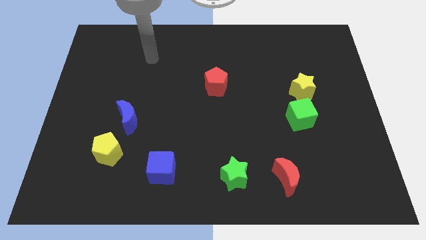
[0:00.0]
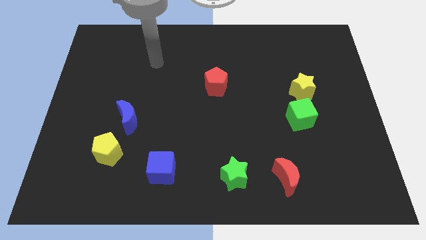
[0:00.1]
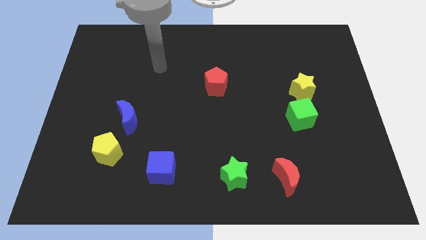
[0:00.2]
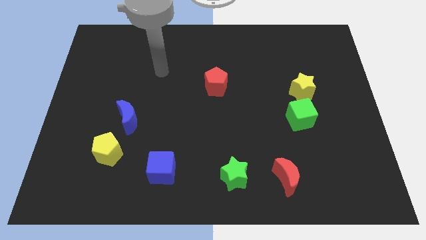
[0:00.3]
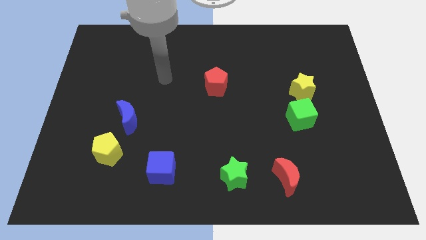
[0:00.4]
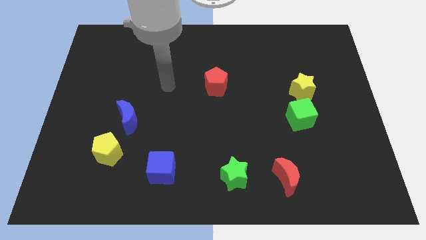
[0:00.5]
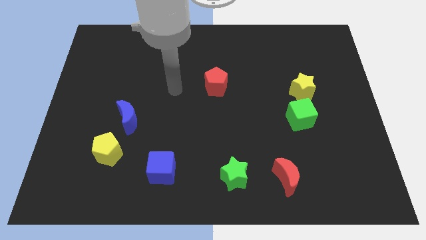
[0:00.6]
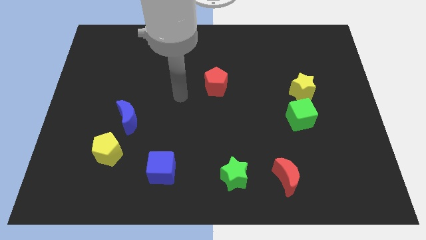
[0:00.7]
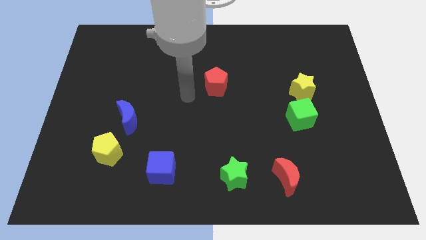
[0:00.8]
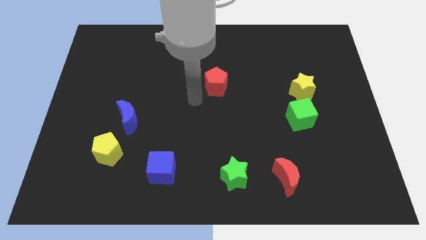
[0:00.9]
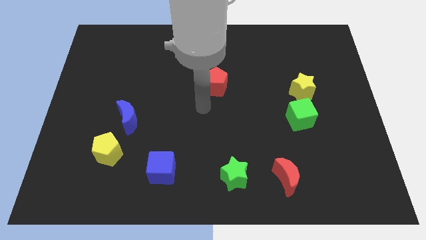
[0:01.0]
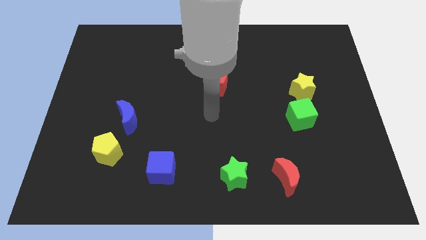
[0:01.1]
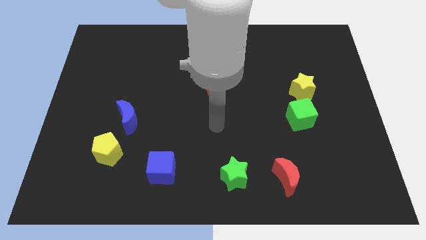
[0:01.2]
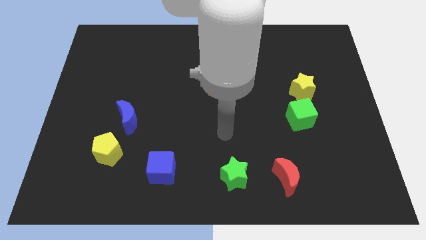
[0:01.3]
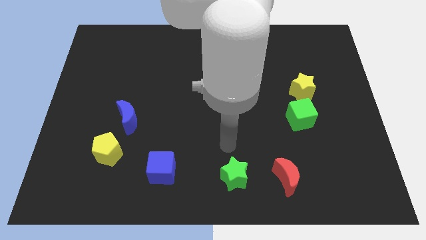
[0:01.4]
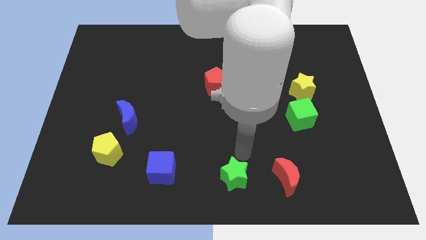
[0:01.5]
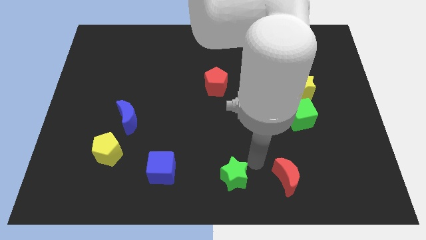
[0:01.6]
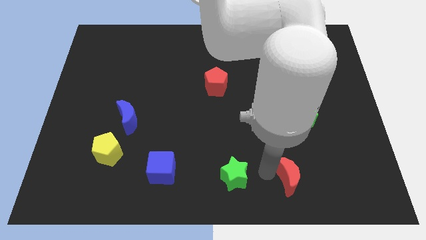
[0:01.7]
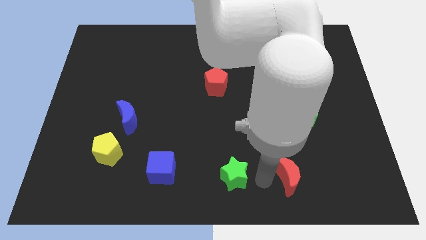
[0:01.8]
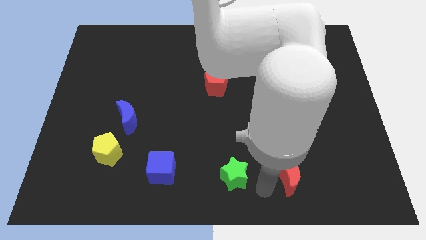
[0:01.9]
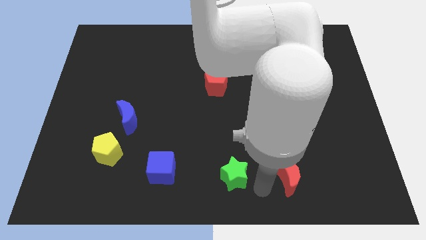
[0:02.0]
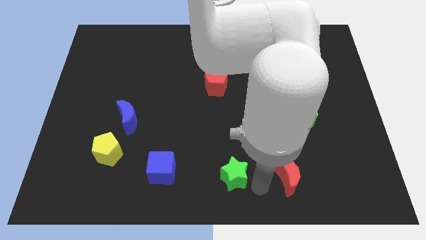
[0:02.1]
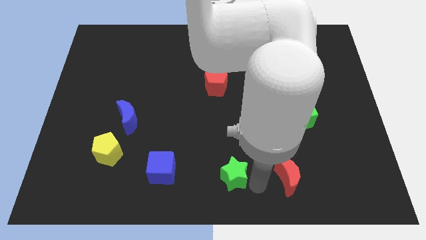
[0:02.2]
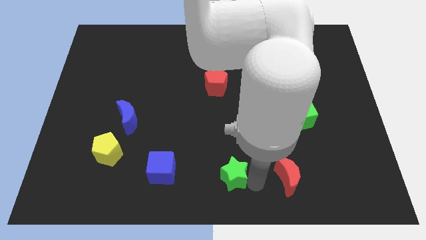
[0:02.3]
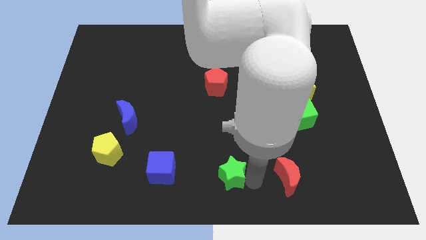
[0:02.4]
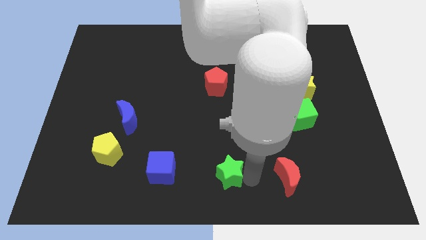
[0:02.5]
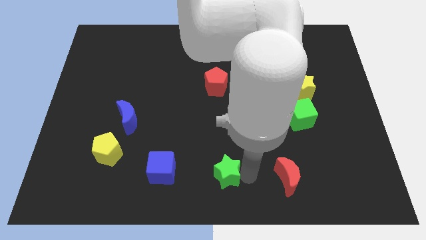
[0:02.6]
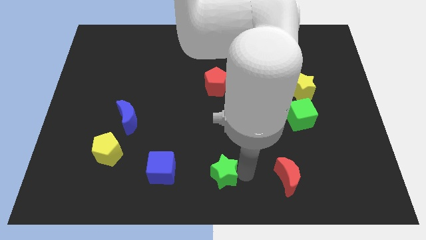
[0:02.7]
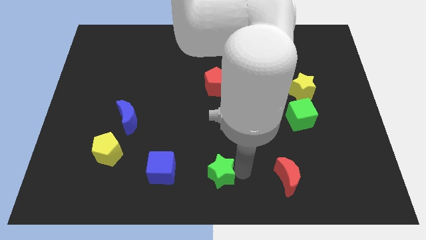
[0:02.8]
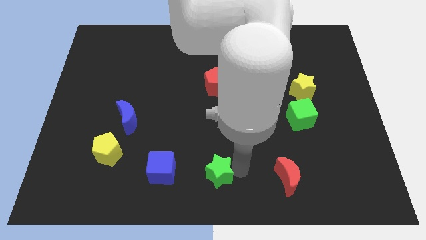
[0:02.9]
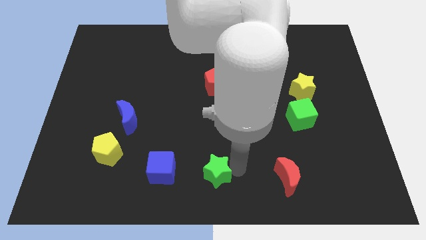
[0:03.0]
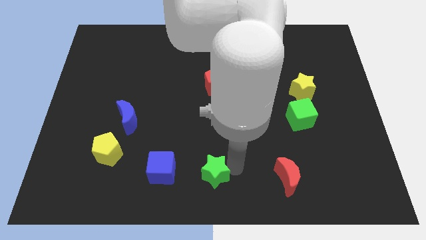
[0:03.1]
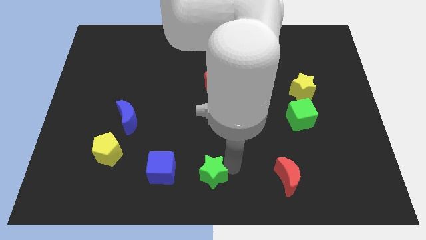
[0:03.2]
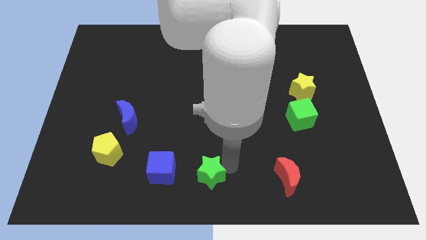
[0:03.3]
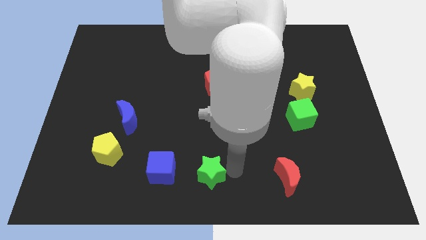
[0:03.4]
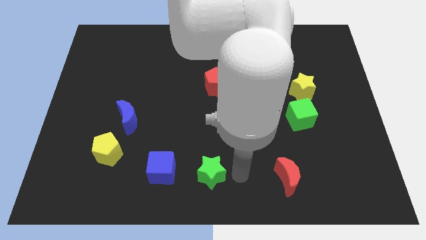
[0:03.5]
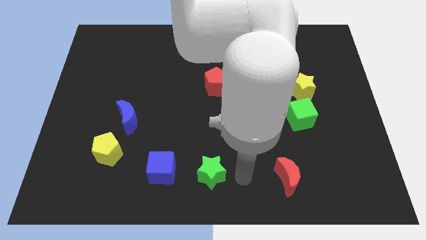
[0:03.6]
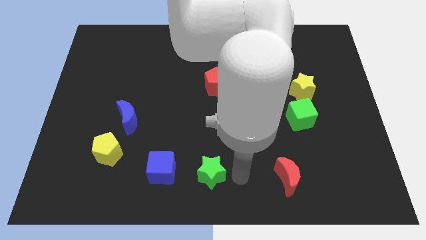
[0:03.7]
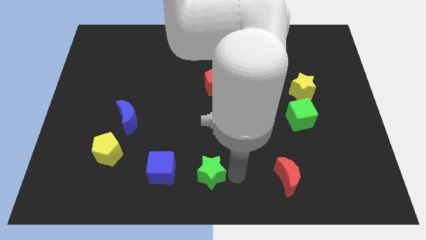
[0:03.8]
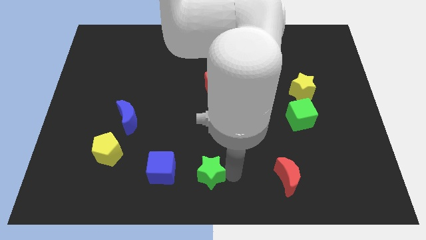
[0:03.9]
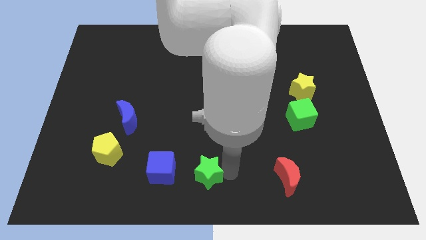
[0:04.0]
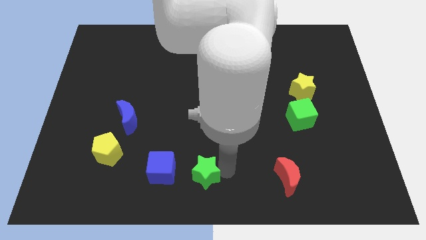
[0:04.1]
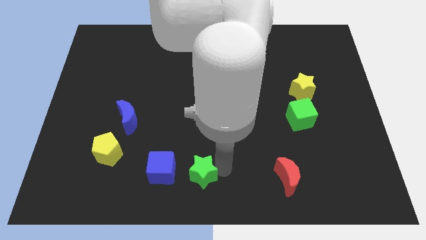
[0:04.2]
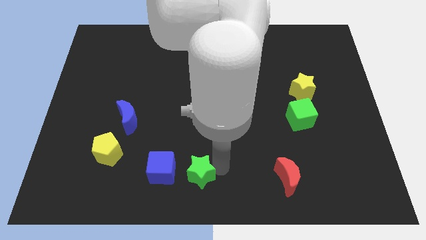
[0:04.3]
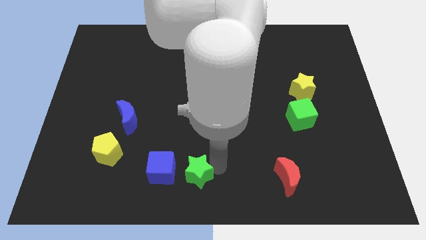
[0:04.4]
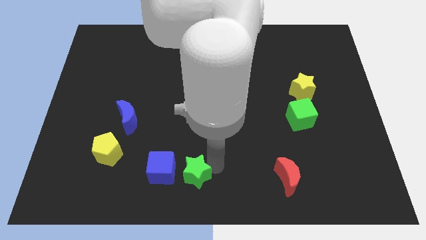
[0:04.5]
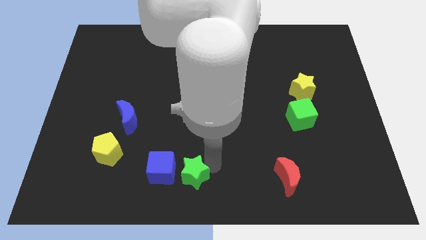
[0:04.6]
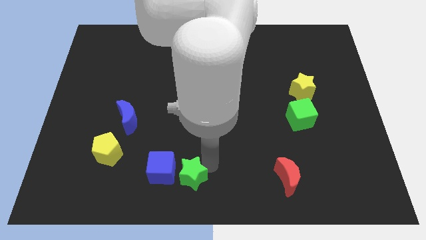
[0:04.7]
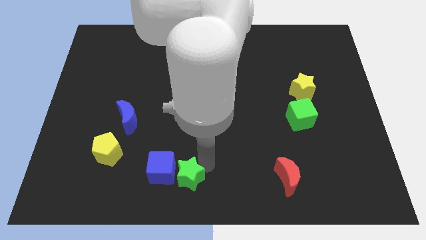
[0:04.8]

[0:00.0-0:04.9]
put the green star close to the blue cube

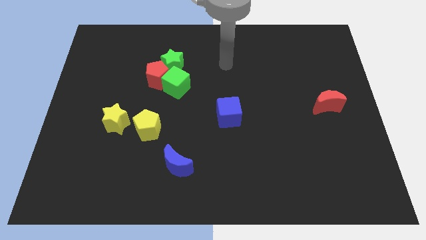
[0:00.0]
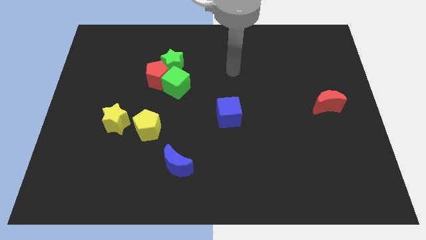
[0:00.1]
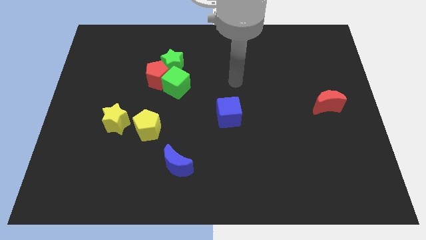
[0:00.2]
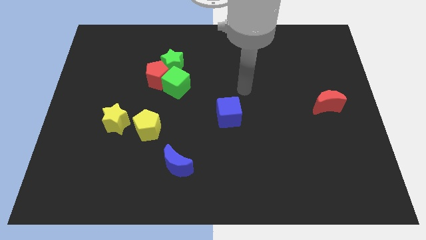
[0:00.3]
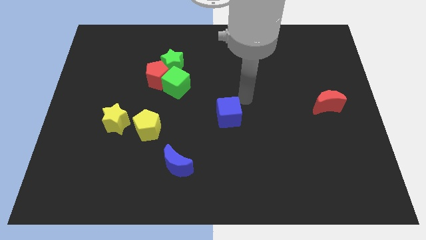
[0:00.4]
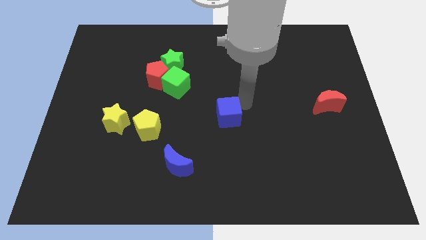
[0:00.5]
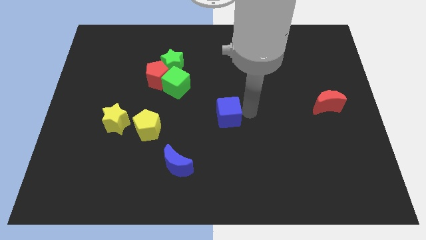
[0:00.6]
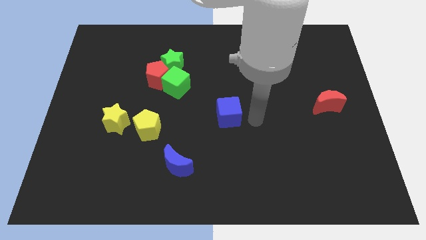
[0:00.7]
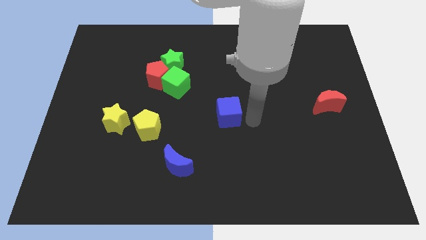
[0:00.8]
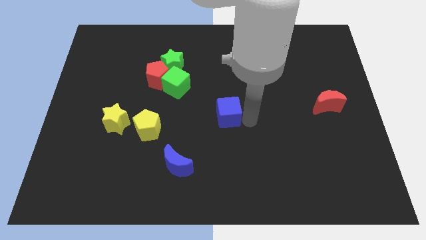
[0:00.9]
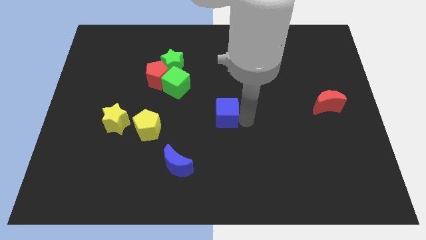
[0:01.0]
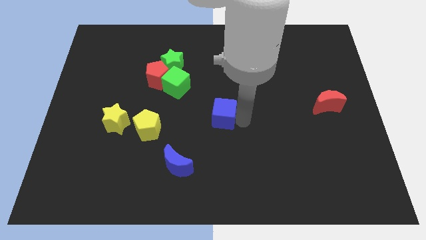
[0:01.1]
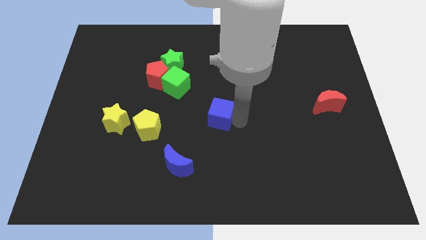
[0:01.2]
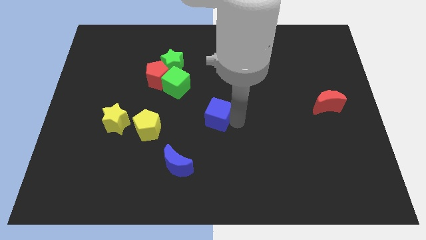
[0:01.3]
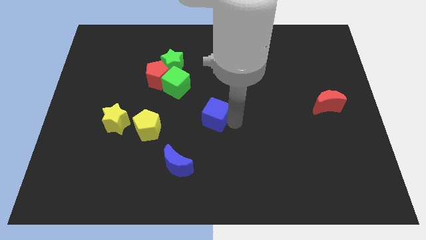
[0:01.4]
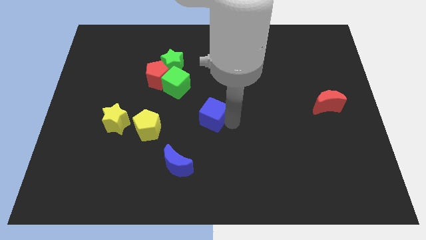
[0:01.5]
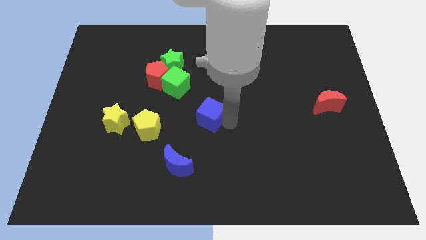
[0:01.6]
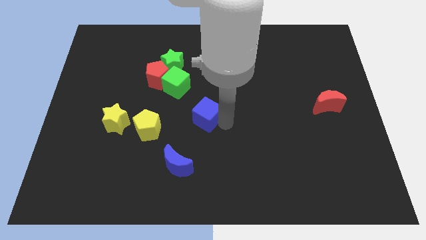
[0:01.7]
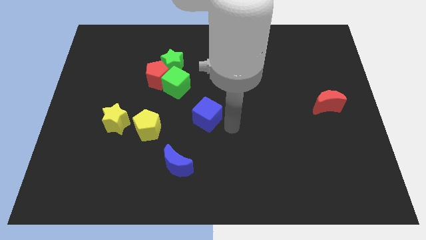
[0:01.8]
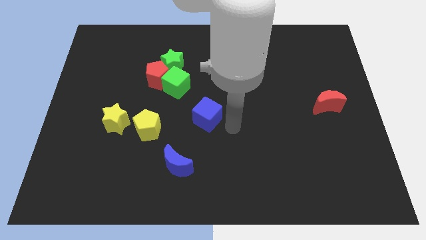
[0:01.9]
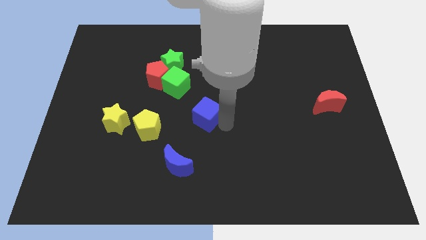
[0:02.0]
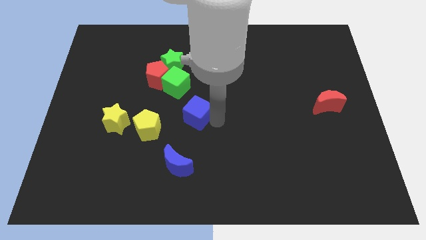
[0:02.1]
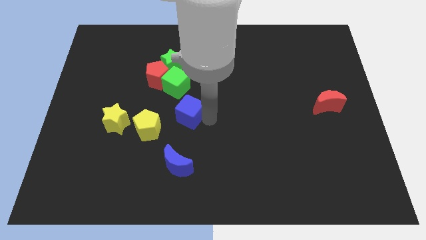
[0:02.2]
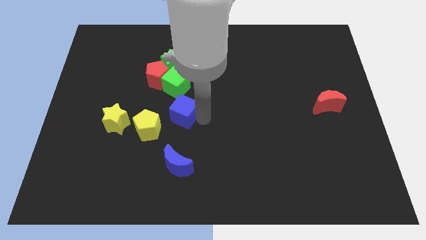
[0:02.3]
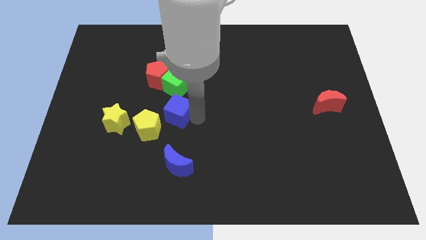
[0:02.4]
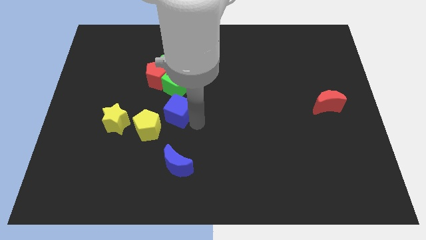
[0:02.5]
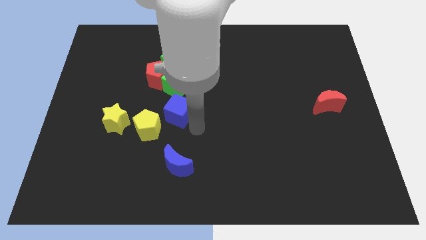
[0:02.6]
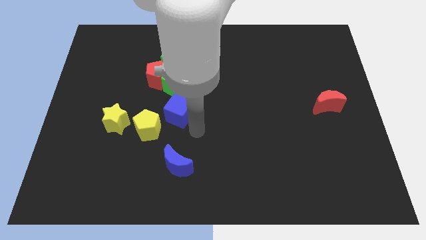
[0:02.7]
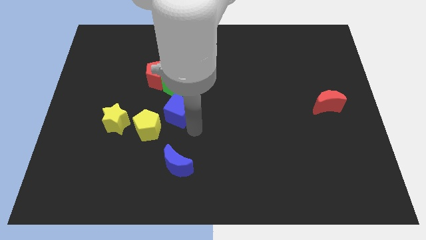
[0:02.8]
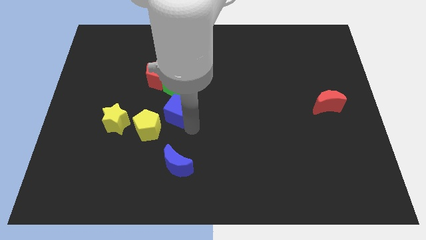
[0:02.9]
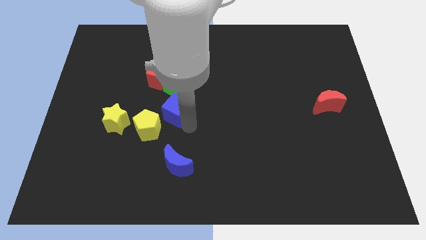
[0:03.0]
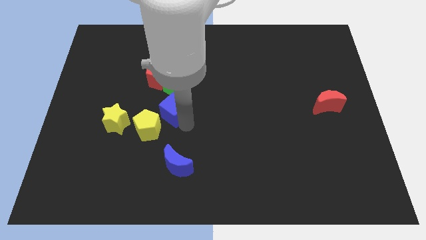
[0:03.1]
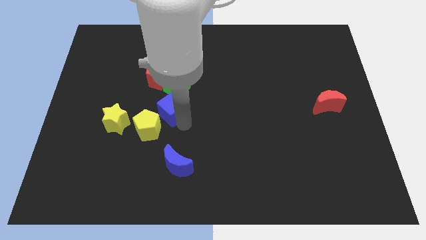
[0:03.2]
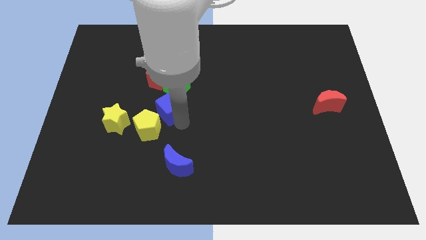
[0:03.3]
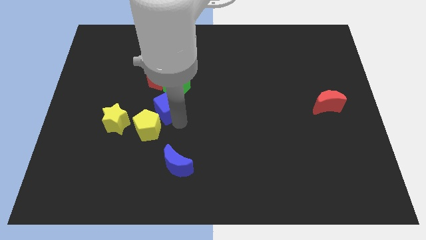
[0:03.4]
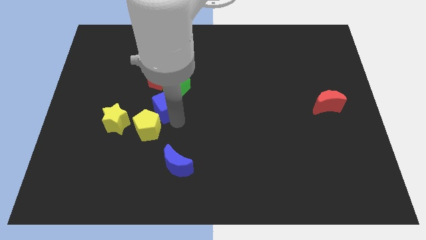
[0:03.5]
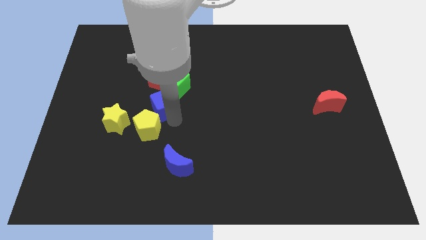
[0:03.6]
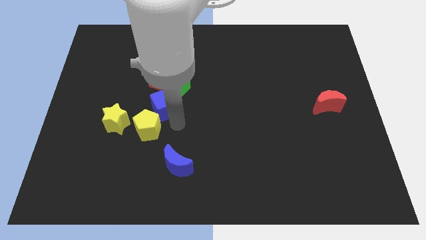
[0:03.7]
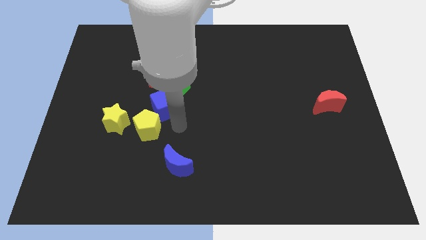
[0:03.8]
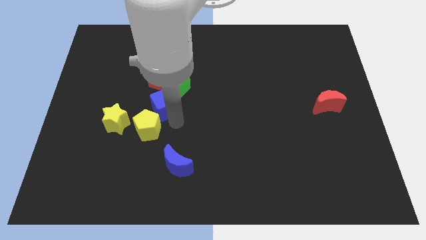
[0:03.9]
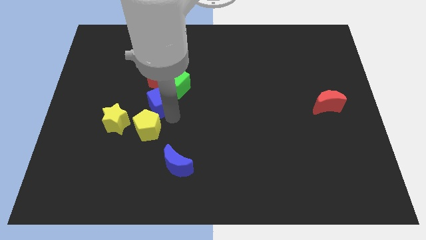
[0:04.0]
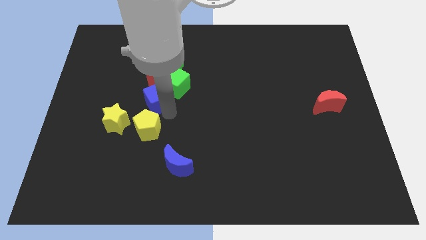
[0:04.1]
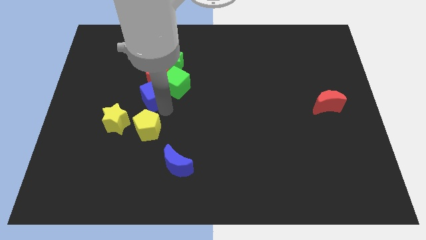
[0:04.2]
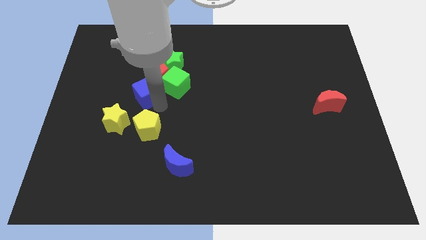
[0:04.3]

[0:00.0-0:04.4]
put the blue cube close to the red pentagon
